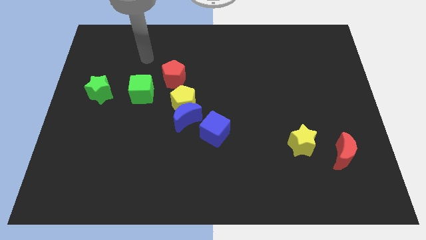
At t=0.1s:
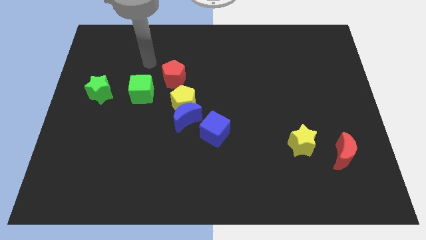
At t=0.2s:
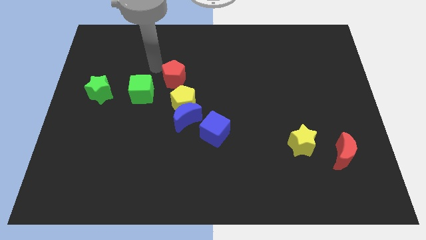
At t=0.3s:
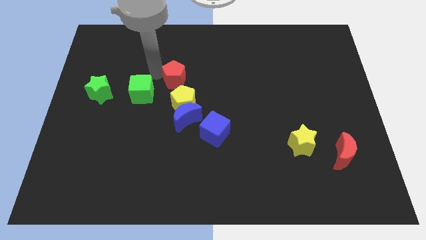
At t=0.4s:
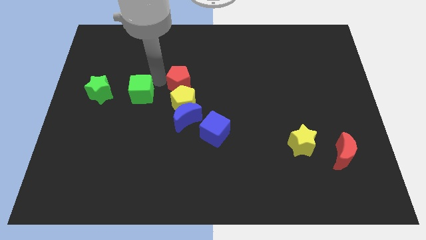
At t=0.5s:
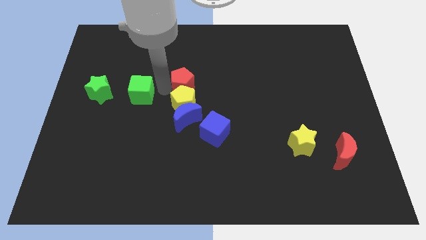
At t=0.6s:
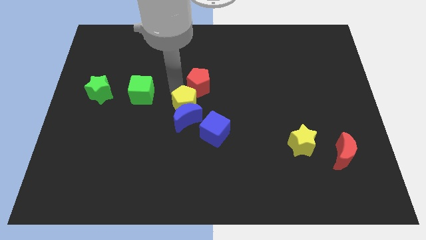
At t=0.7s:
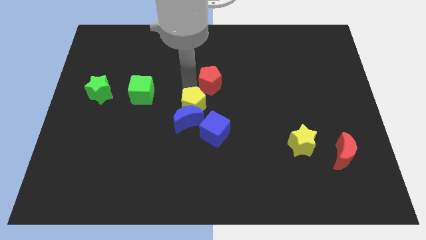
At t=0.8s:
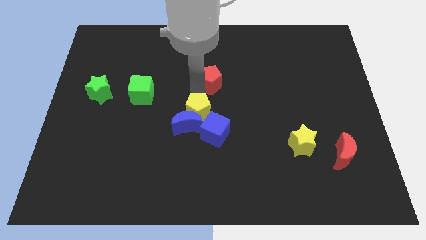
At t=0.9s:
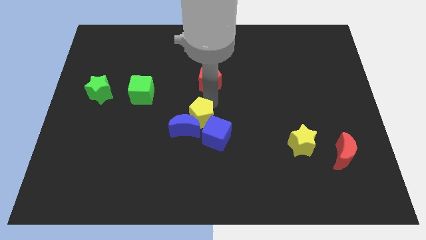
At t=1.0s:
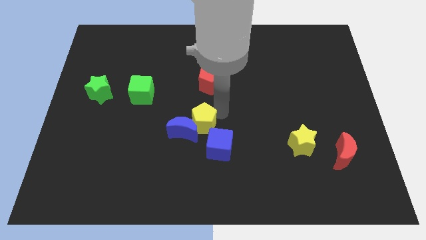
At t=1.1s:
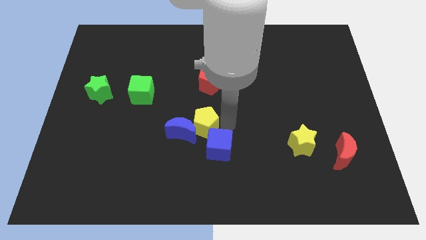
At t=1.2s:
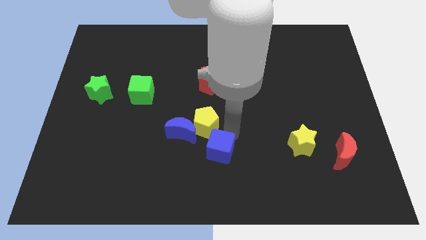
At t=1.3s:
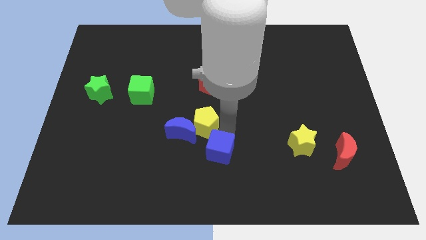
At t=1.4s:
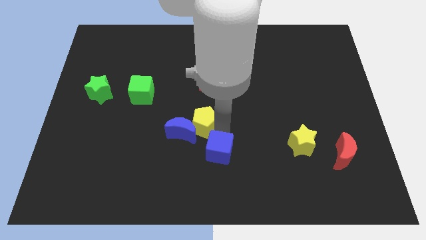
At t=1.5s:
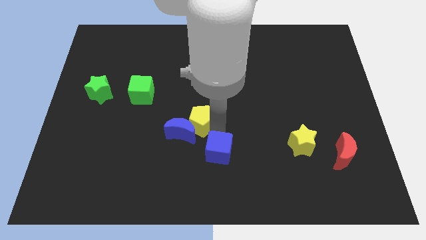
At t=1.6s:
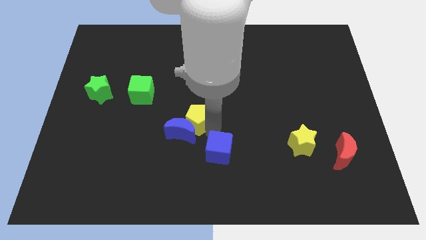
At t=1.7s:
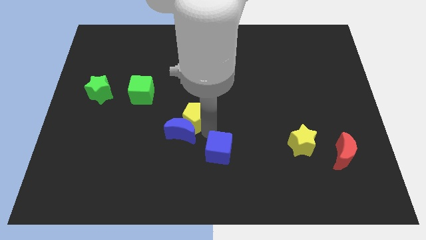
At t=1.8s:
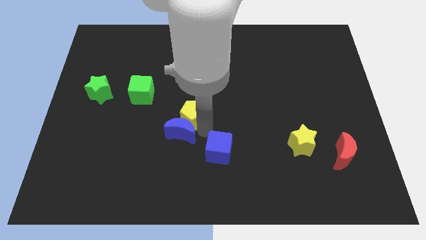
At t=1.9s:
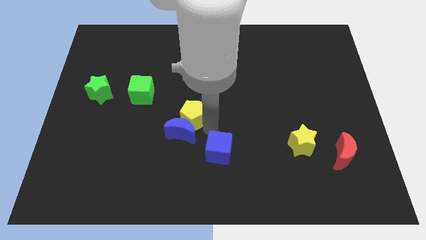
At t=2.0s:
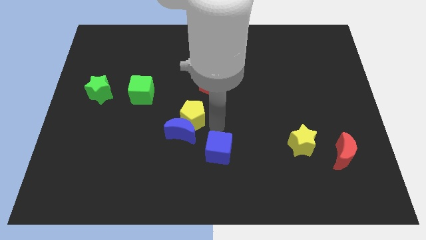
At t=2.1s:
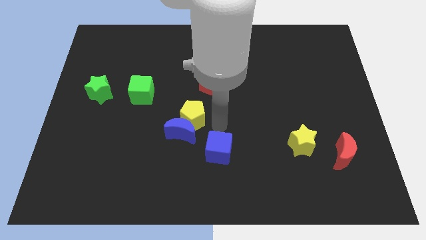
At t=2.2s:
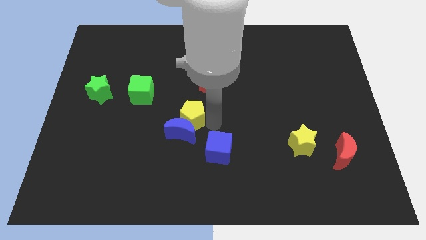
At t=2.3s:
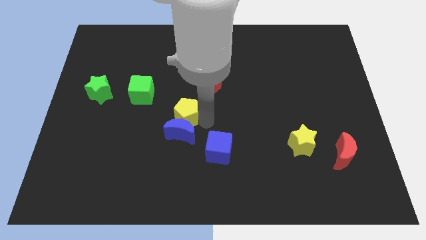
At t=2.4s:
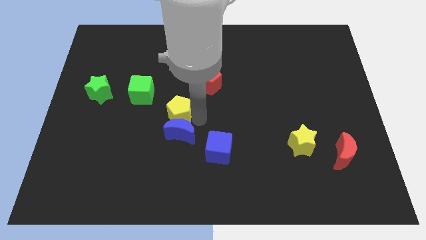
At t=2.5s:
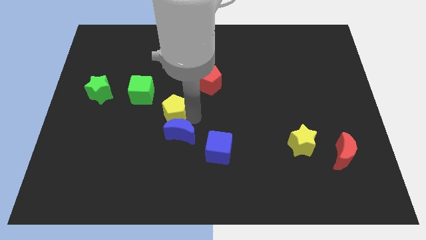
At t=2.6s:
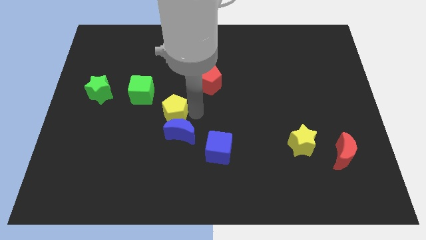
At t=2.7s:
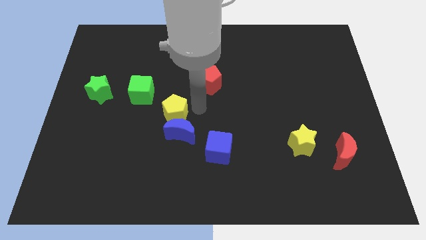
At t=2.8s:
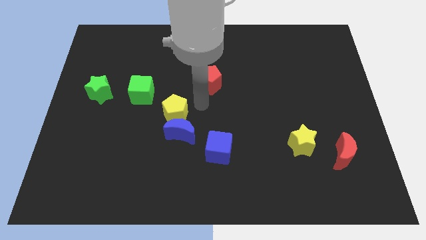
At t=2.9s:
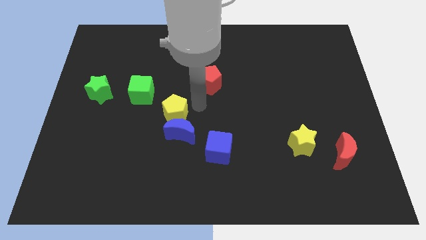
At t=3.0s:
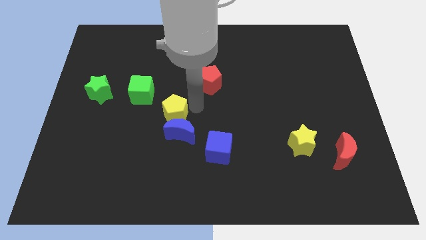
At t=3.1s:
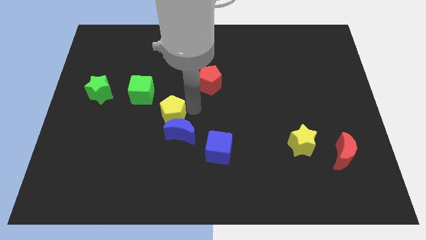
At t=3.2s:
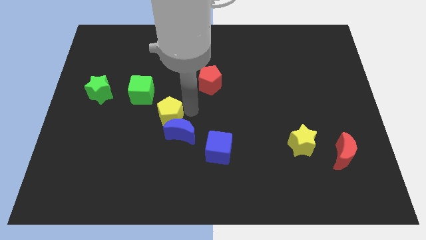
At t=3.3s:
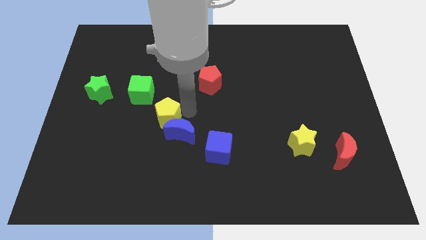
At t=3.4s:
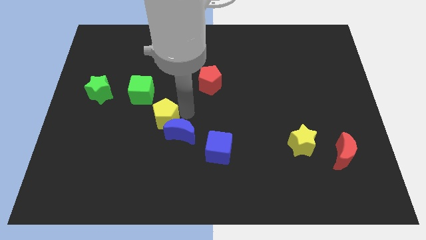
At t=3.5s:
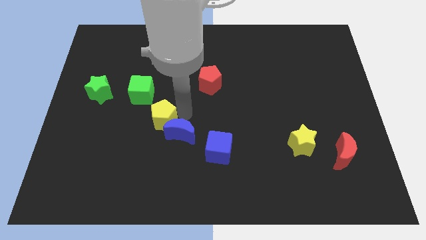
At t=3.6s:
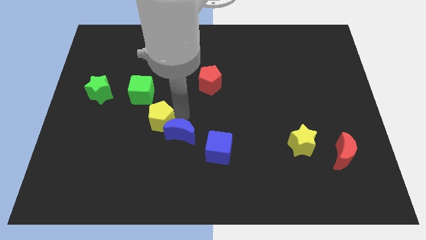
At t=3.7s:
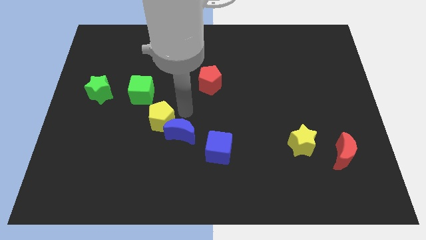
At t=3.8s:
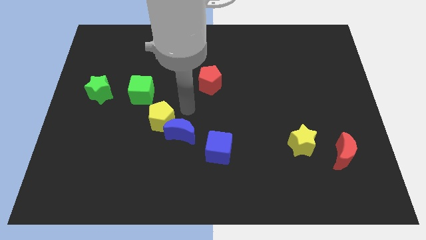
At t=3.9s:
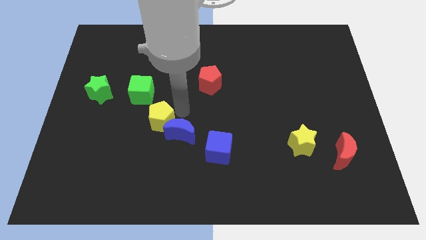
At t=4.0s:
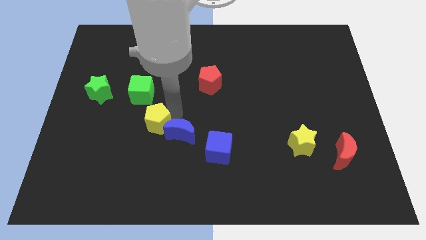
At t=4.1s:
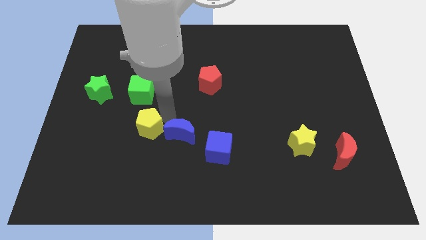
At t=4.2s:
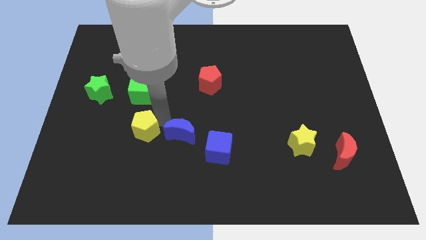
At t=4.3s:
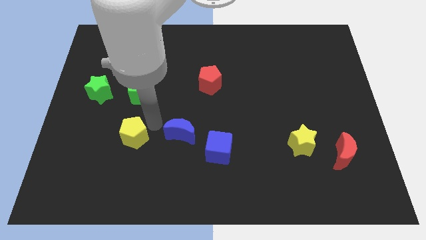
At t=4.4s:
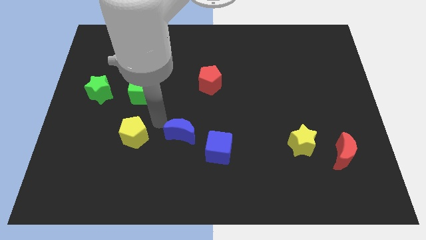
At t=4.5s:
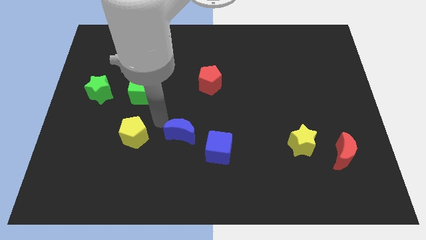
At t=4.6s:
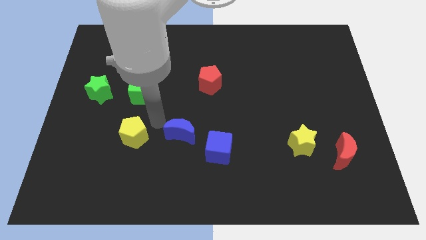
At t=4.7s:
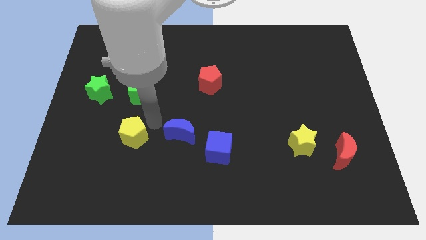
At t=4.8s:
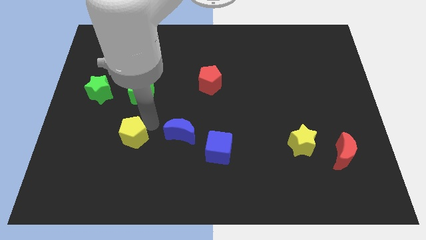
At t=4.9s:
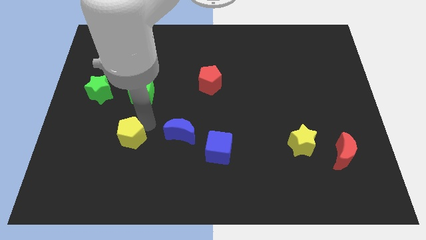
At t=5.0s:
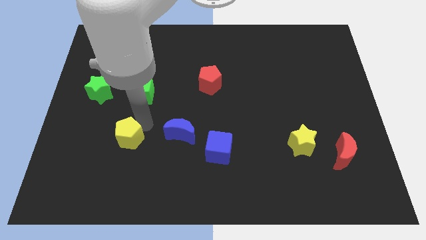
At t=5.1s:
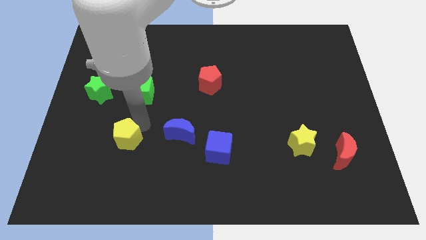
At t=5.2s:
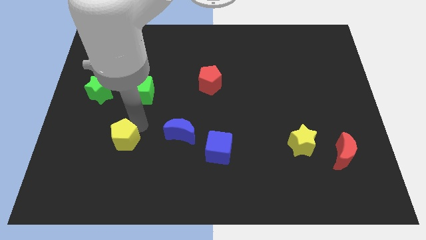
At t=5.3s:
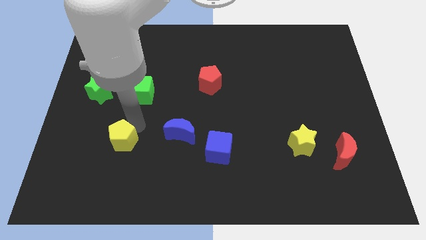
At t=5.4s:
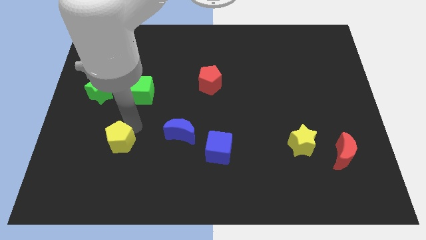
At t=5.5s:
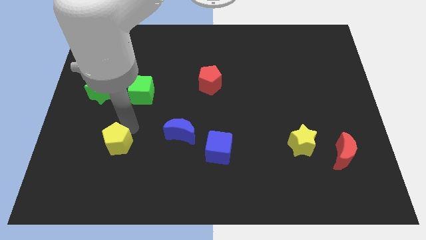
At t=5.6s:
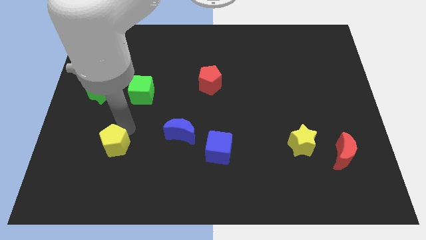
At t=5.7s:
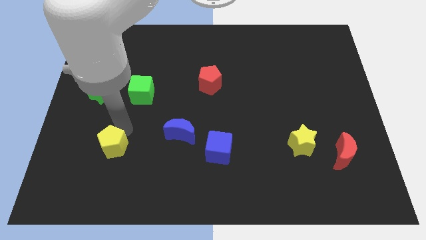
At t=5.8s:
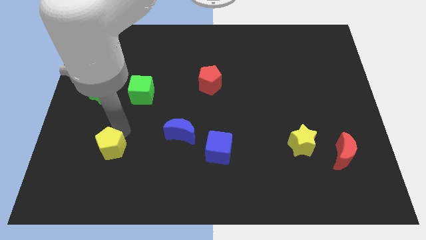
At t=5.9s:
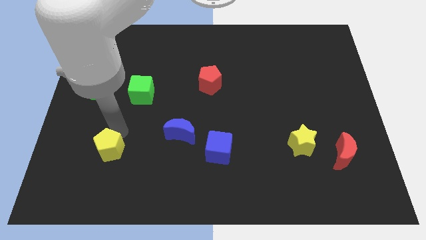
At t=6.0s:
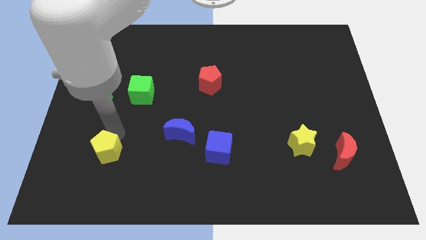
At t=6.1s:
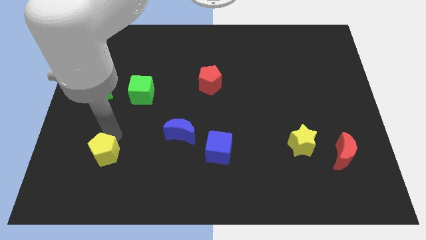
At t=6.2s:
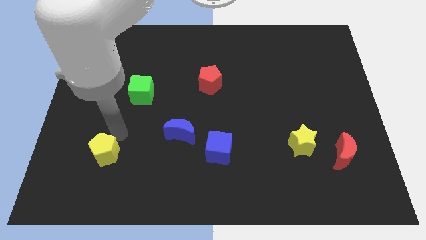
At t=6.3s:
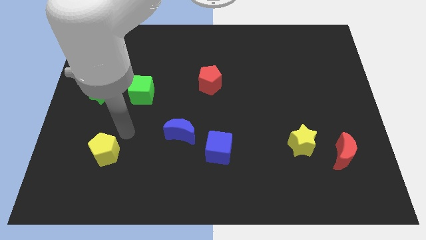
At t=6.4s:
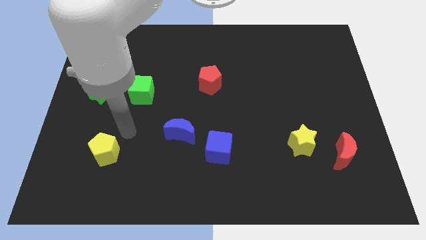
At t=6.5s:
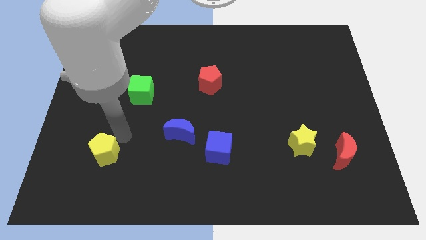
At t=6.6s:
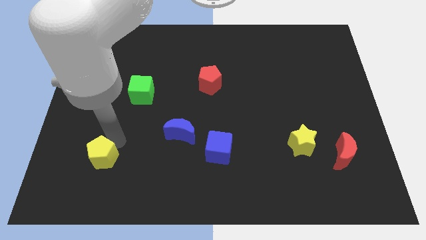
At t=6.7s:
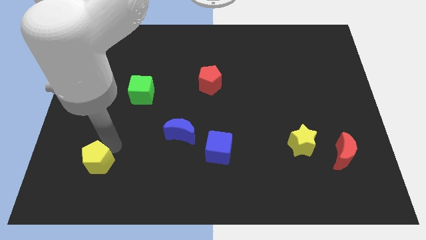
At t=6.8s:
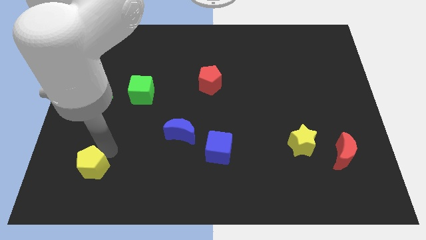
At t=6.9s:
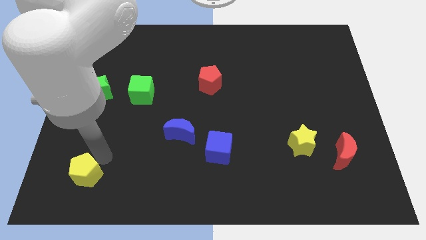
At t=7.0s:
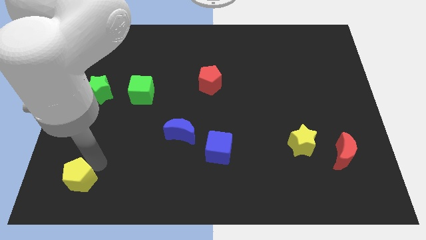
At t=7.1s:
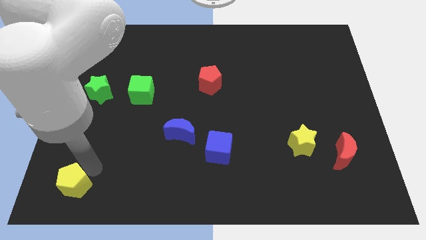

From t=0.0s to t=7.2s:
put the yellow pentagon to the bottom left
